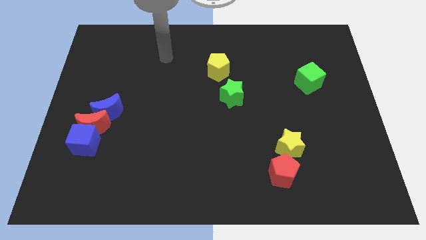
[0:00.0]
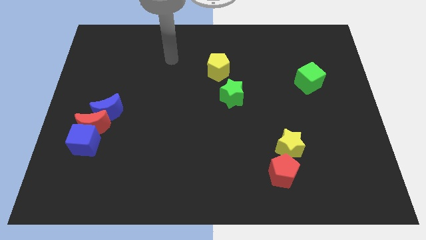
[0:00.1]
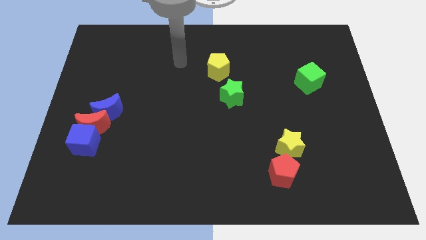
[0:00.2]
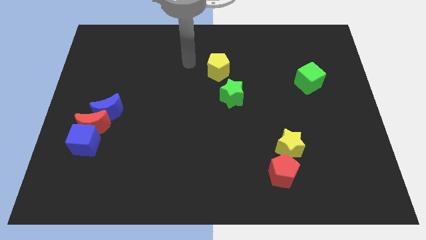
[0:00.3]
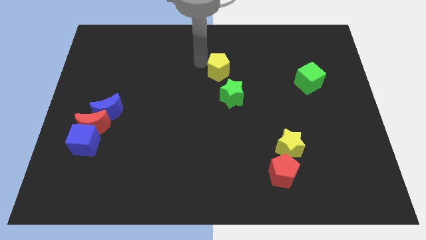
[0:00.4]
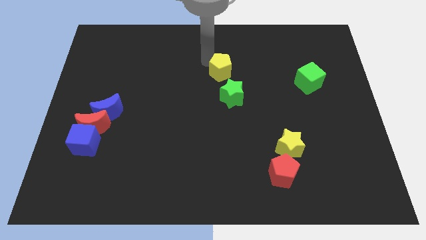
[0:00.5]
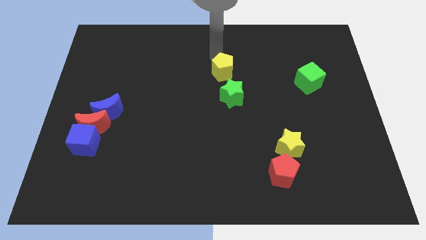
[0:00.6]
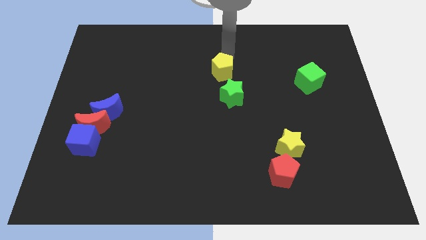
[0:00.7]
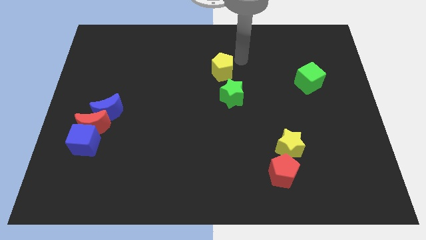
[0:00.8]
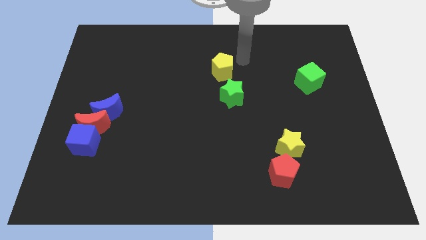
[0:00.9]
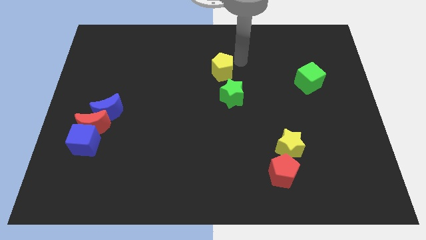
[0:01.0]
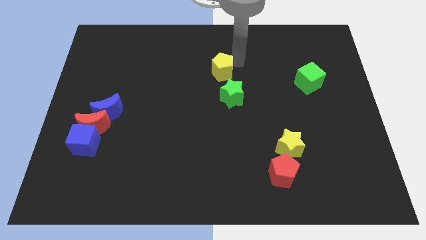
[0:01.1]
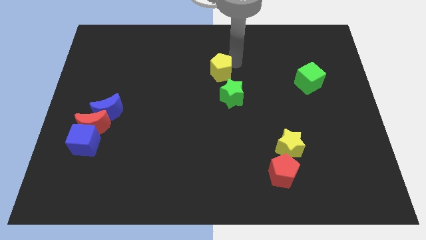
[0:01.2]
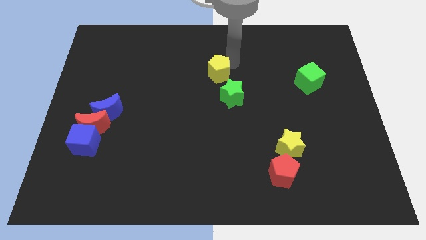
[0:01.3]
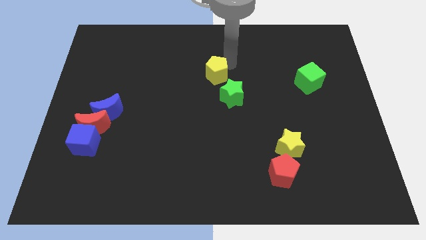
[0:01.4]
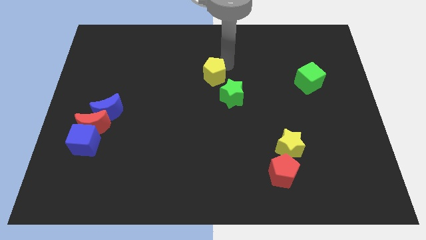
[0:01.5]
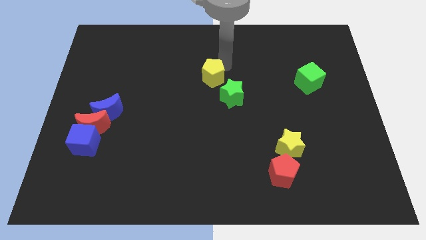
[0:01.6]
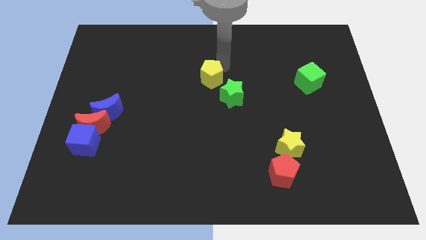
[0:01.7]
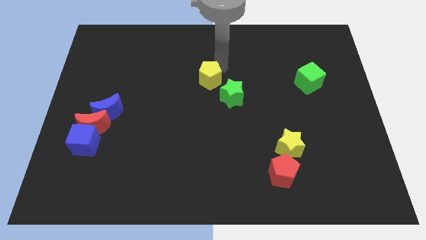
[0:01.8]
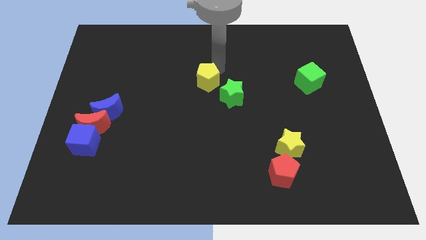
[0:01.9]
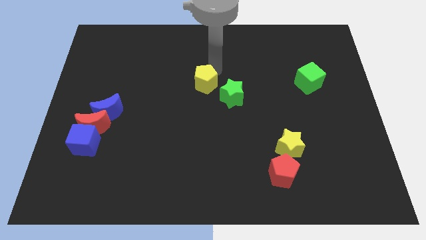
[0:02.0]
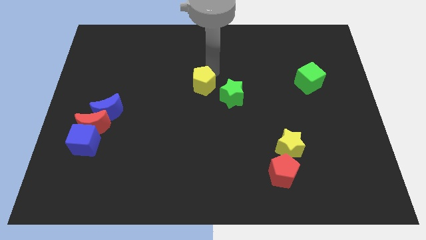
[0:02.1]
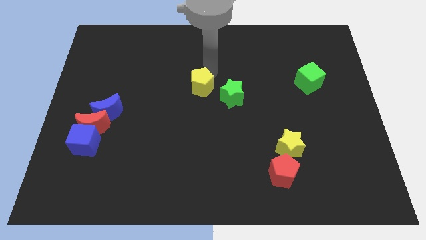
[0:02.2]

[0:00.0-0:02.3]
move the yellow pentagon a little diagonally down and to the left

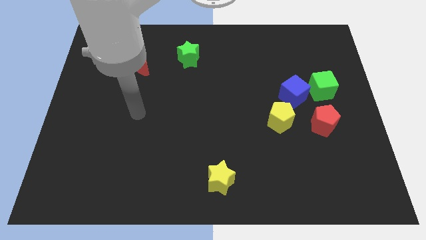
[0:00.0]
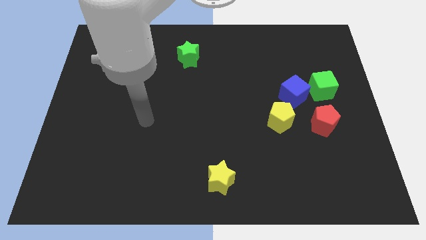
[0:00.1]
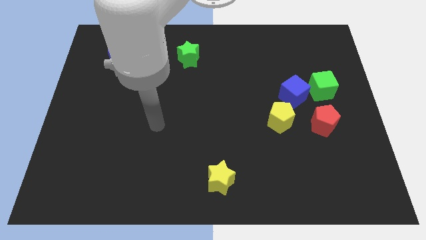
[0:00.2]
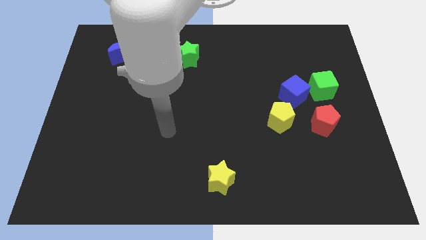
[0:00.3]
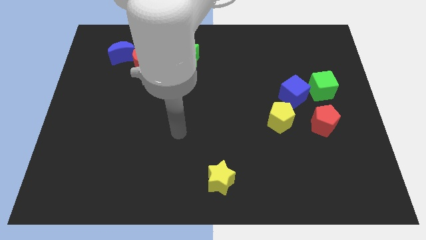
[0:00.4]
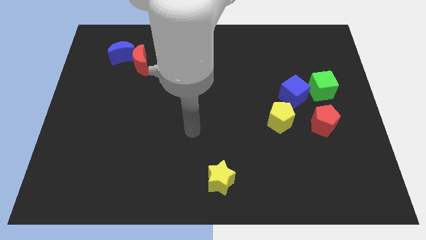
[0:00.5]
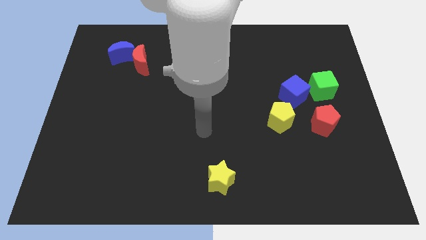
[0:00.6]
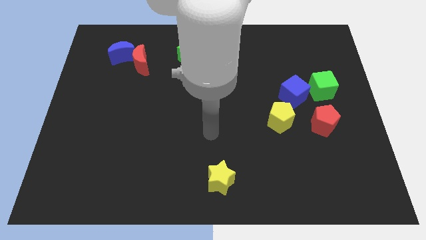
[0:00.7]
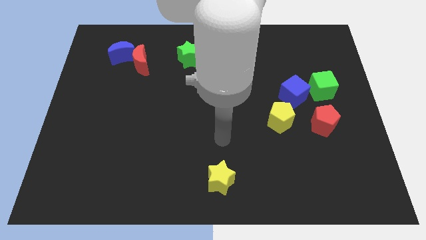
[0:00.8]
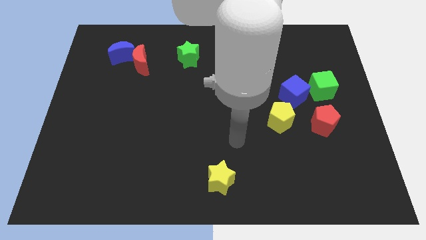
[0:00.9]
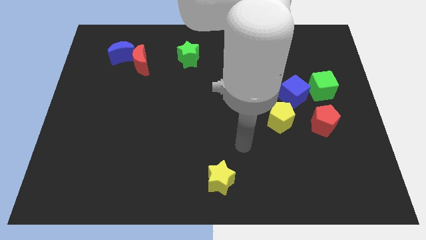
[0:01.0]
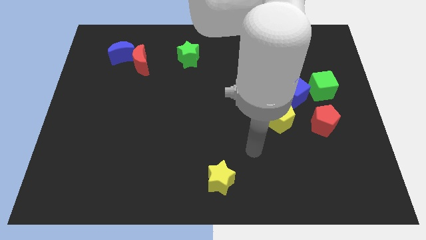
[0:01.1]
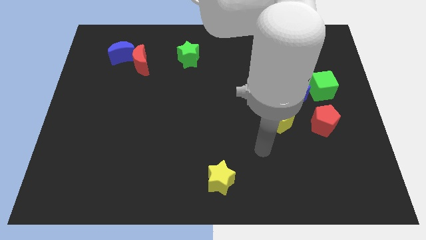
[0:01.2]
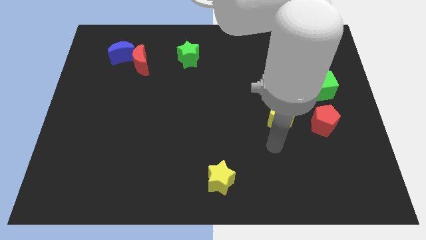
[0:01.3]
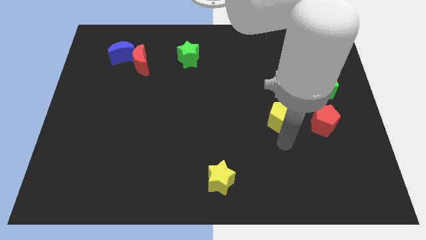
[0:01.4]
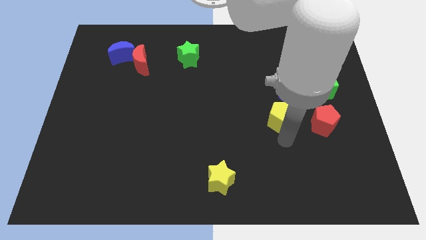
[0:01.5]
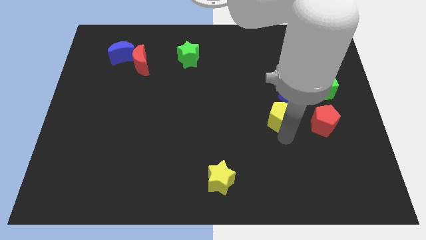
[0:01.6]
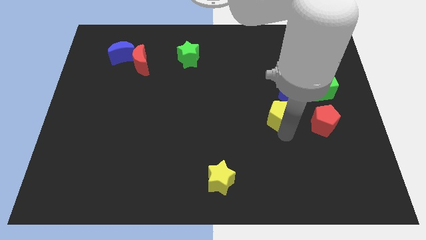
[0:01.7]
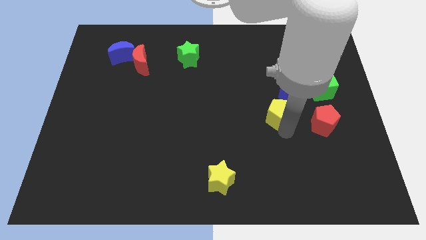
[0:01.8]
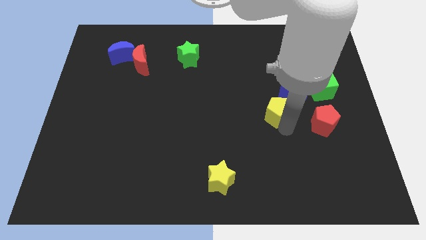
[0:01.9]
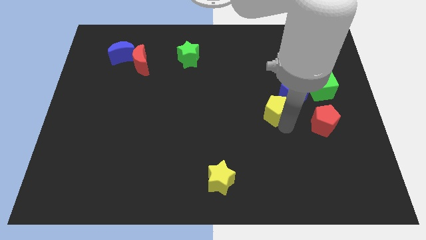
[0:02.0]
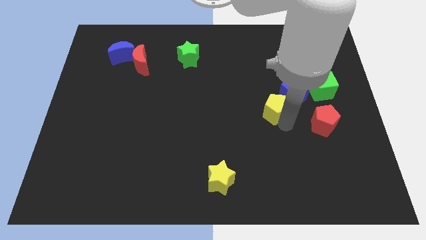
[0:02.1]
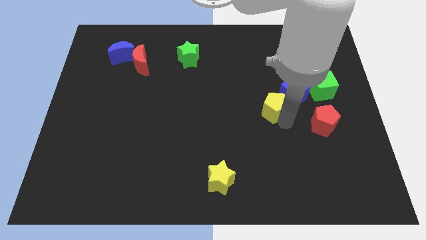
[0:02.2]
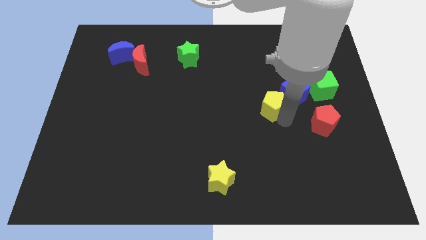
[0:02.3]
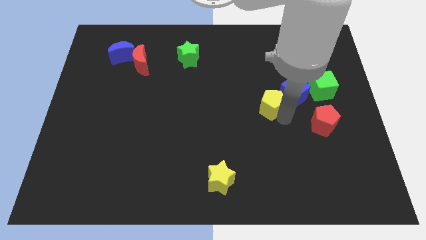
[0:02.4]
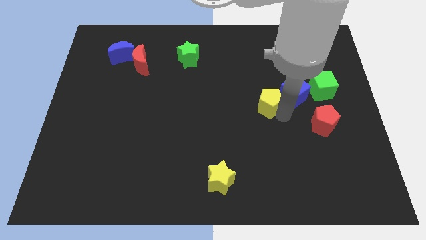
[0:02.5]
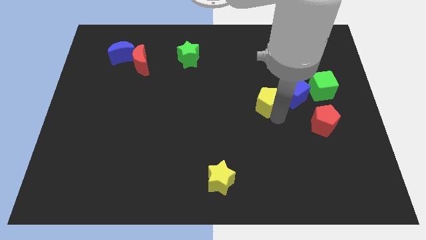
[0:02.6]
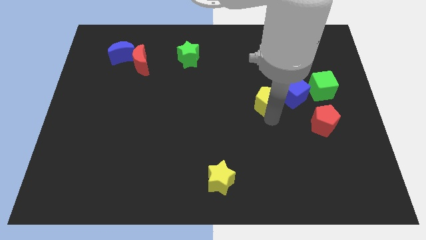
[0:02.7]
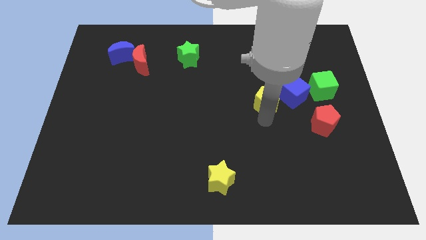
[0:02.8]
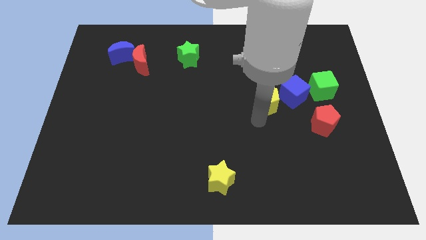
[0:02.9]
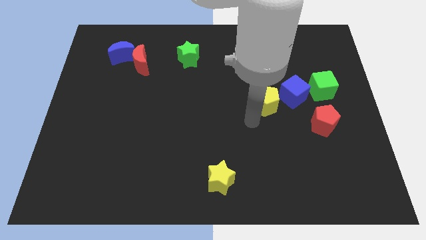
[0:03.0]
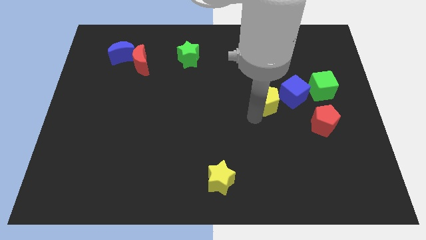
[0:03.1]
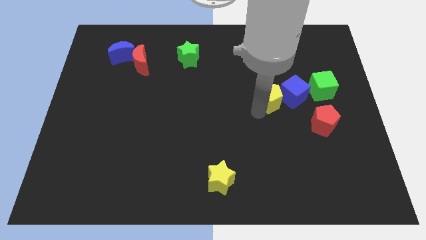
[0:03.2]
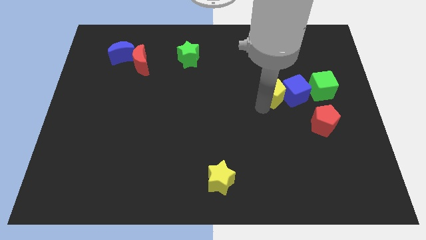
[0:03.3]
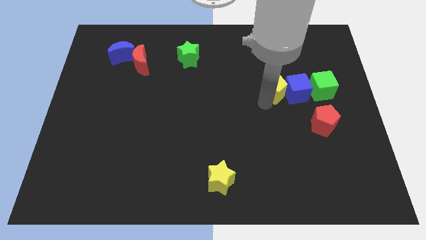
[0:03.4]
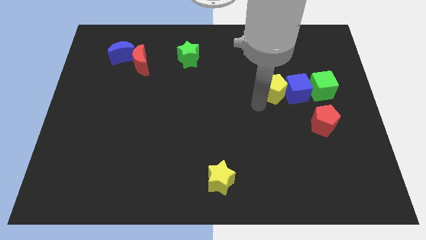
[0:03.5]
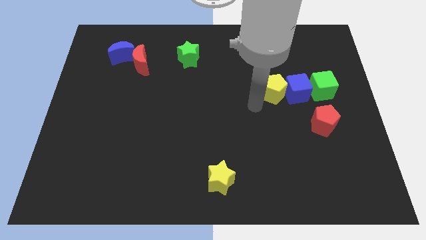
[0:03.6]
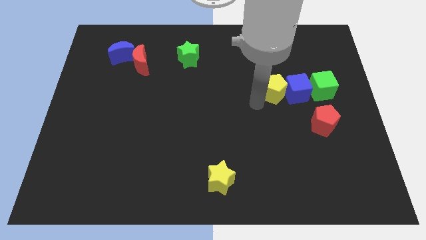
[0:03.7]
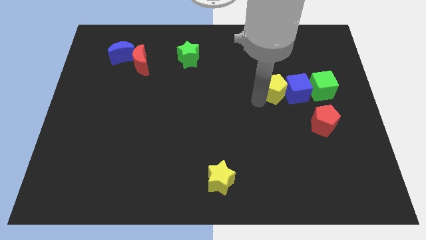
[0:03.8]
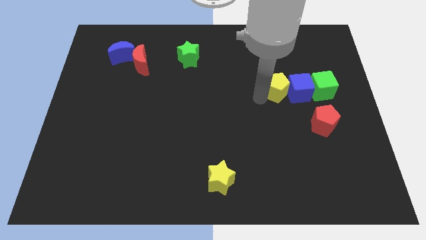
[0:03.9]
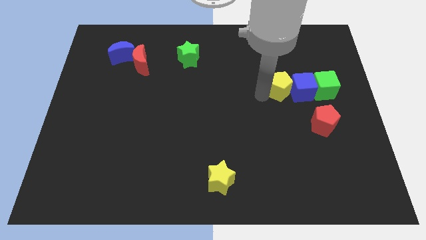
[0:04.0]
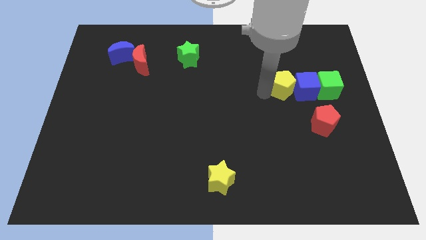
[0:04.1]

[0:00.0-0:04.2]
slide the yellow pentagon a little diagonally up and to the right

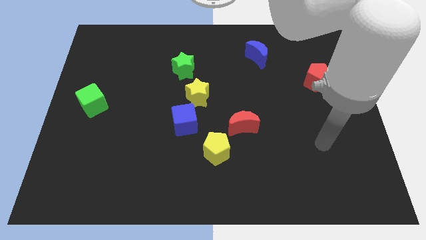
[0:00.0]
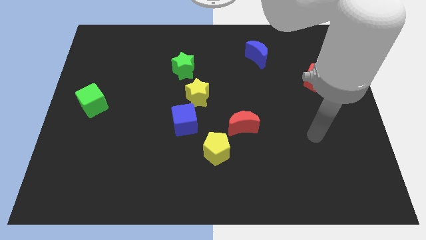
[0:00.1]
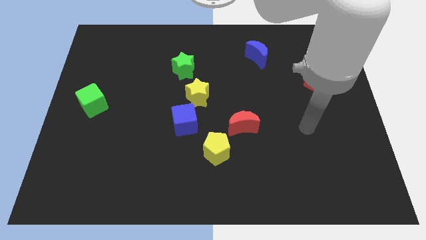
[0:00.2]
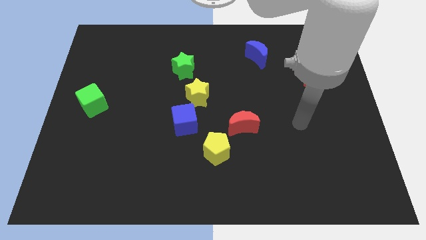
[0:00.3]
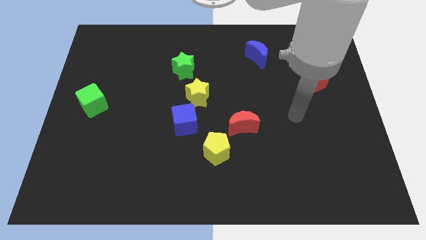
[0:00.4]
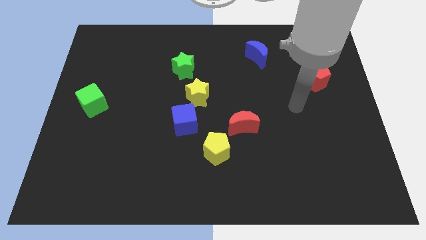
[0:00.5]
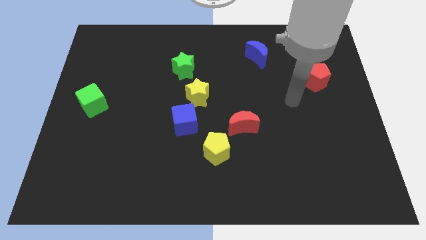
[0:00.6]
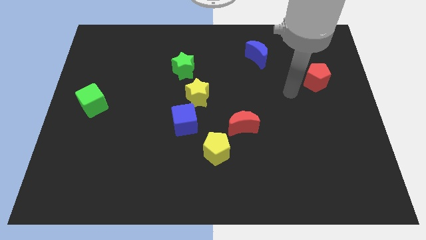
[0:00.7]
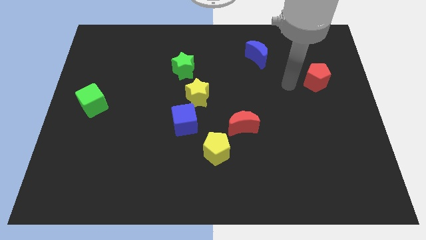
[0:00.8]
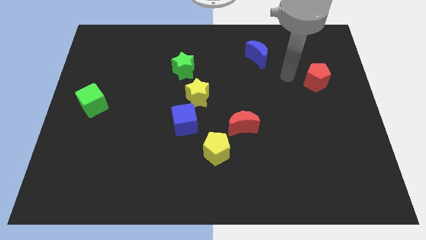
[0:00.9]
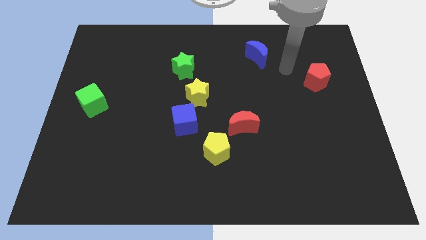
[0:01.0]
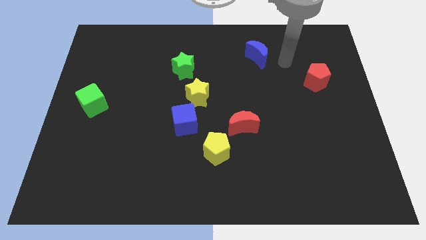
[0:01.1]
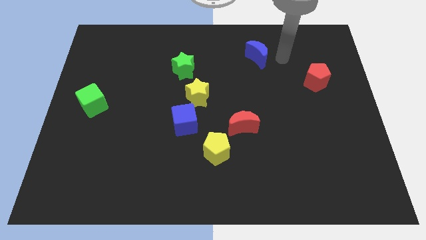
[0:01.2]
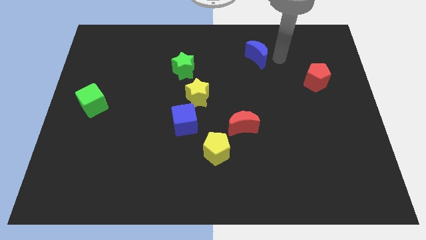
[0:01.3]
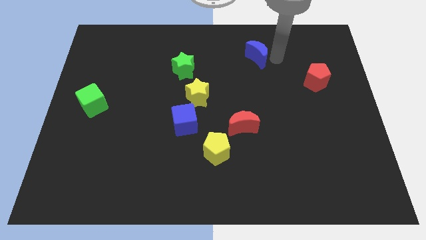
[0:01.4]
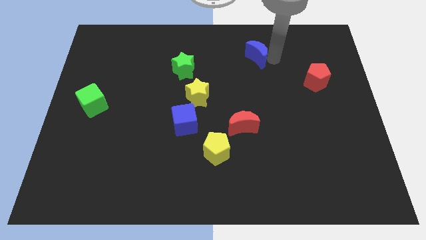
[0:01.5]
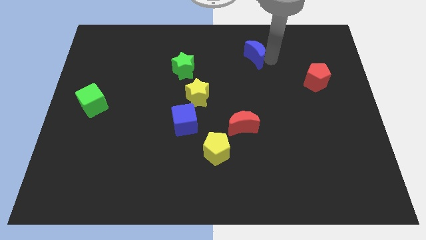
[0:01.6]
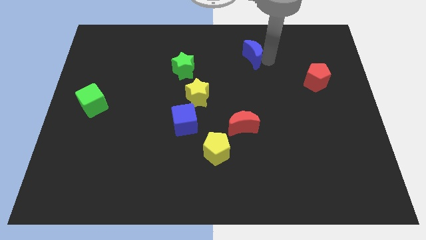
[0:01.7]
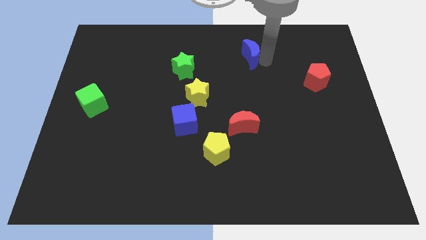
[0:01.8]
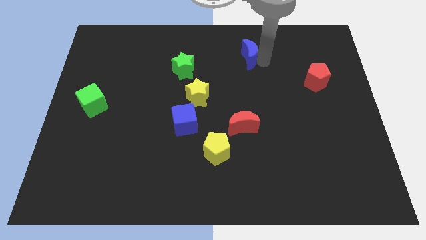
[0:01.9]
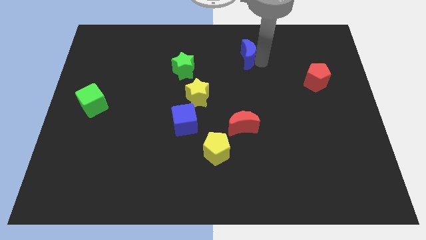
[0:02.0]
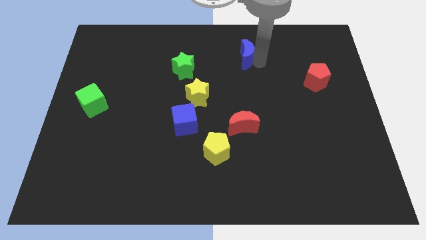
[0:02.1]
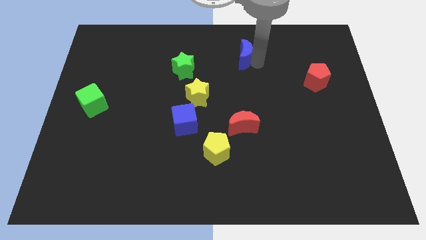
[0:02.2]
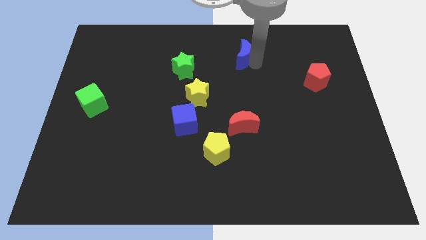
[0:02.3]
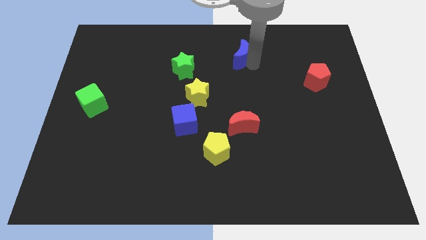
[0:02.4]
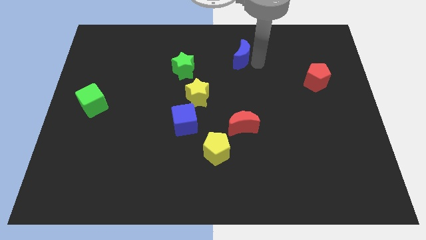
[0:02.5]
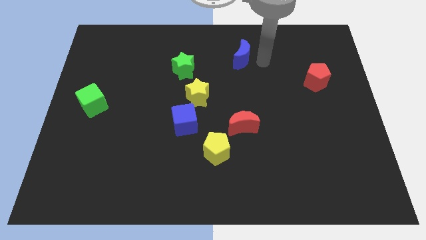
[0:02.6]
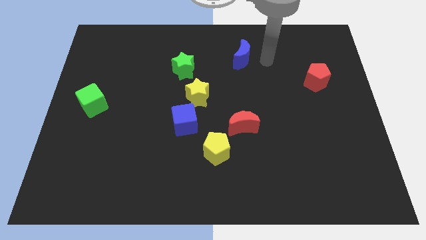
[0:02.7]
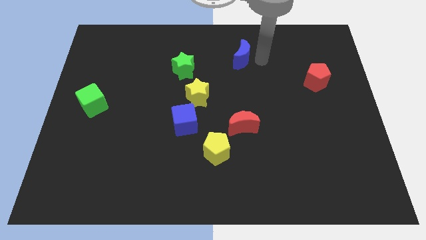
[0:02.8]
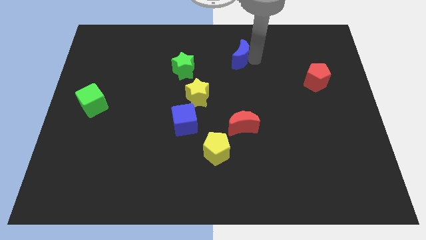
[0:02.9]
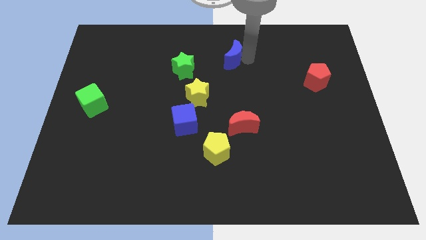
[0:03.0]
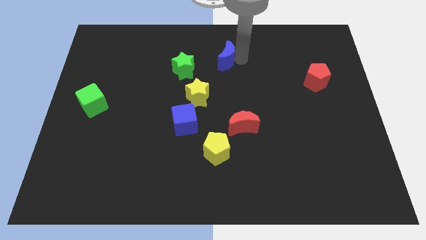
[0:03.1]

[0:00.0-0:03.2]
slightly slide the blue moon to the left
